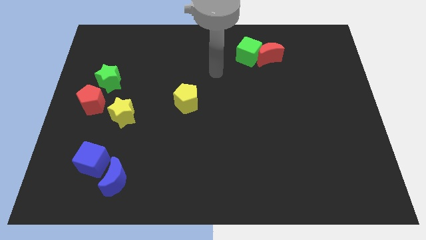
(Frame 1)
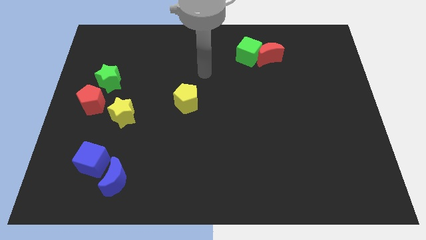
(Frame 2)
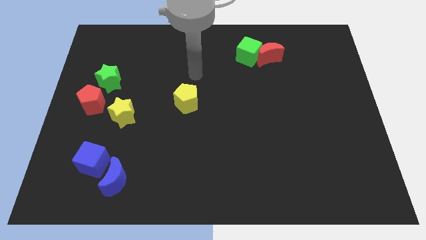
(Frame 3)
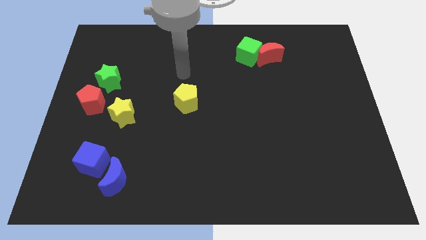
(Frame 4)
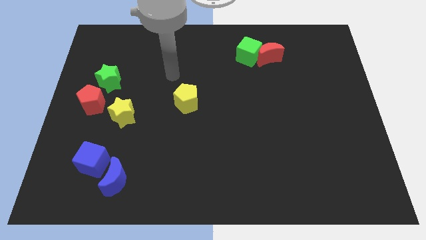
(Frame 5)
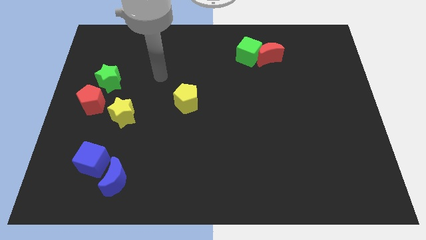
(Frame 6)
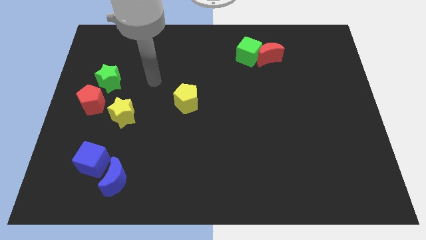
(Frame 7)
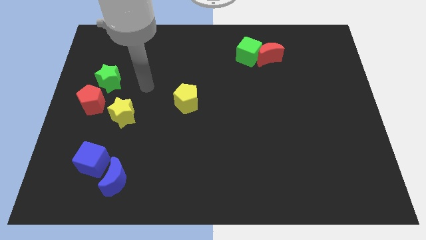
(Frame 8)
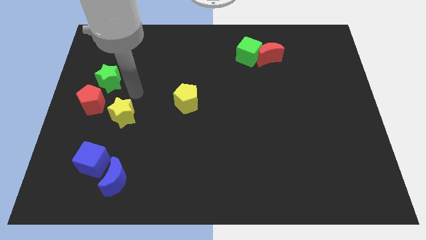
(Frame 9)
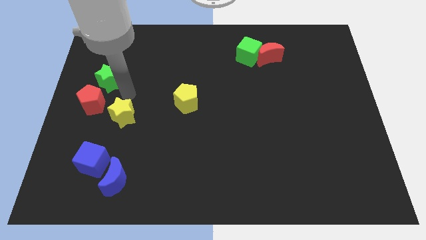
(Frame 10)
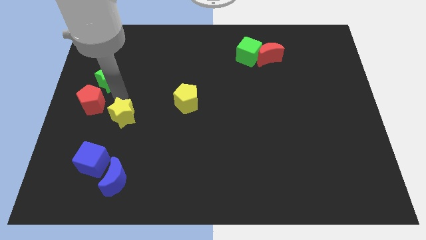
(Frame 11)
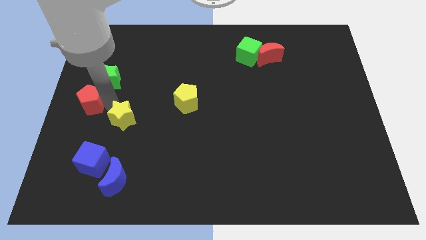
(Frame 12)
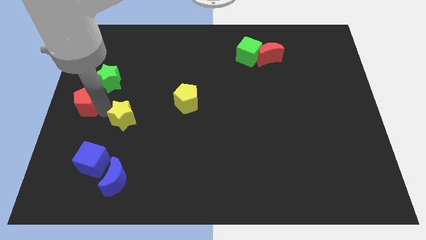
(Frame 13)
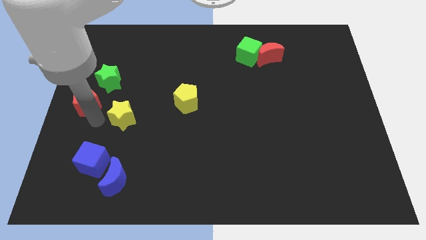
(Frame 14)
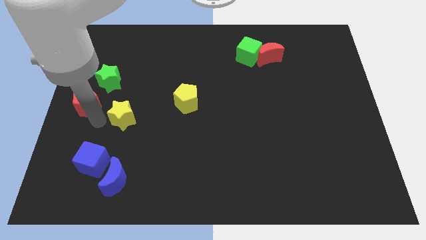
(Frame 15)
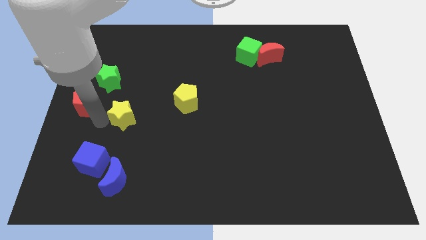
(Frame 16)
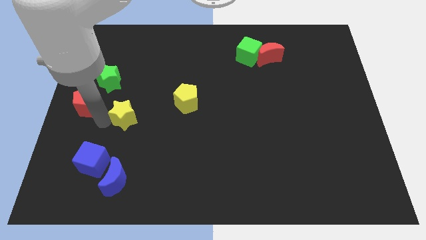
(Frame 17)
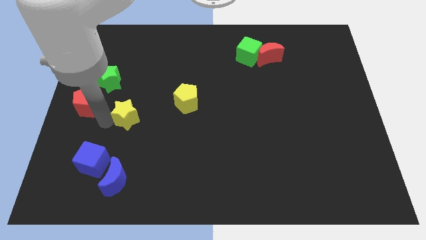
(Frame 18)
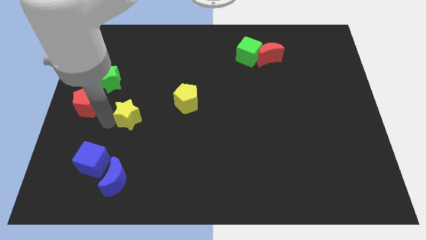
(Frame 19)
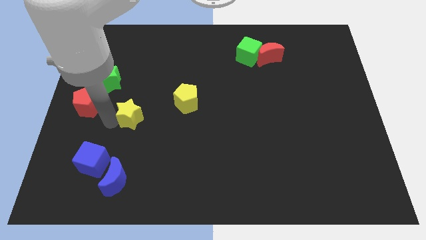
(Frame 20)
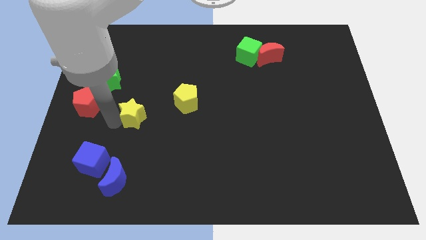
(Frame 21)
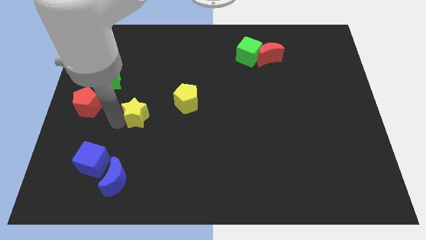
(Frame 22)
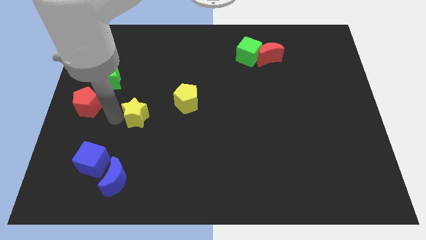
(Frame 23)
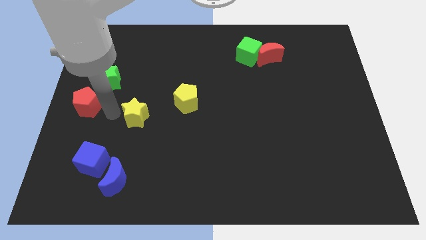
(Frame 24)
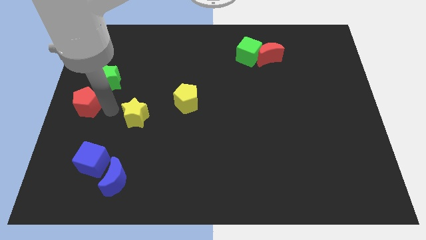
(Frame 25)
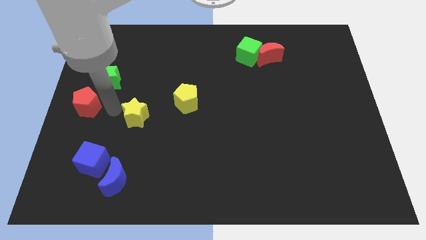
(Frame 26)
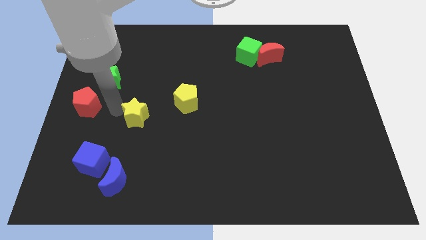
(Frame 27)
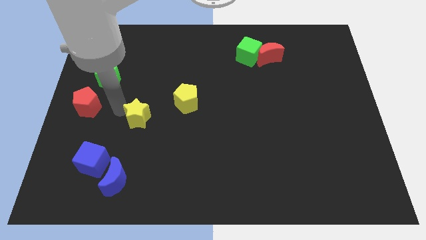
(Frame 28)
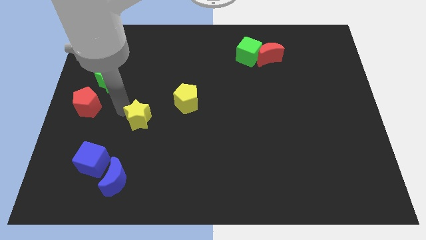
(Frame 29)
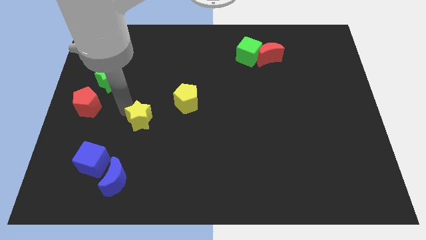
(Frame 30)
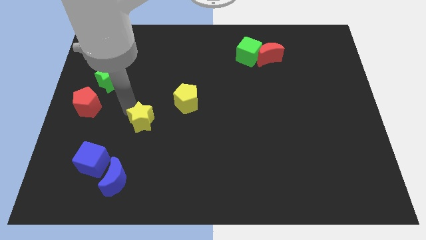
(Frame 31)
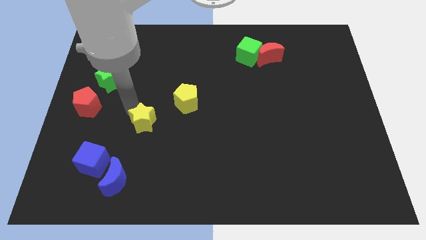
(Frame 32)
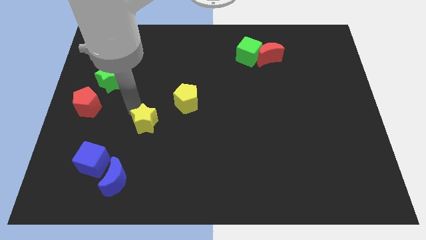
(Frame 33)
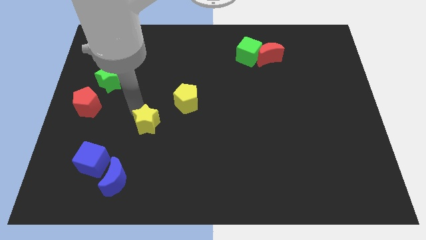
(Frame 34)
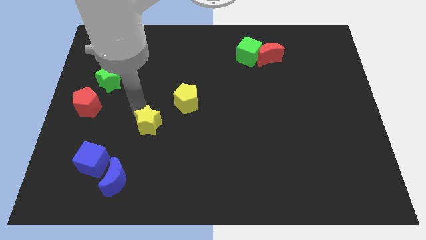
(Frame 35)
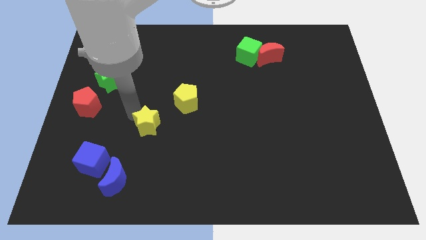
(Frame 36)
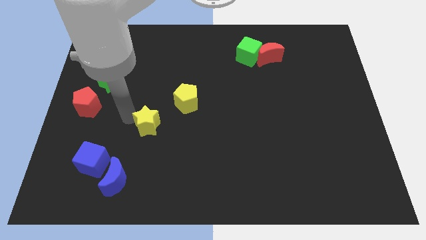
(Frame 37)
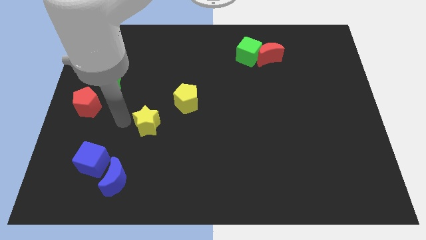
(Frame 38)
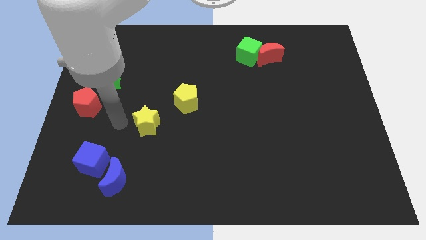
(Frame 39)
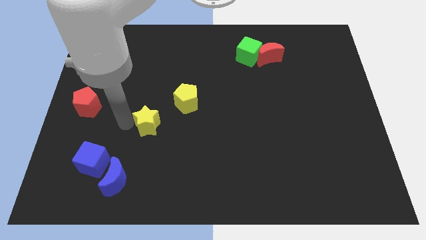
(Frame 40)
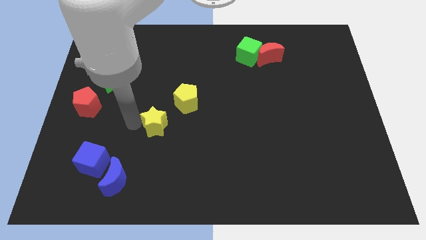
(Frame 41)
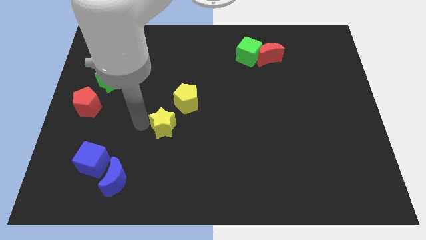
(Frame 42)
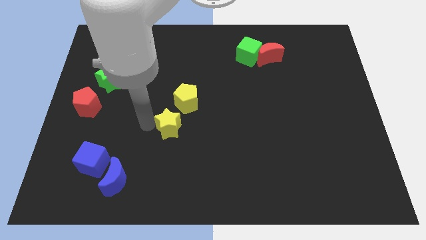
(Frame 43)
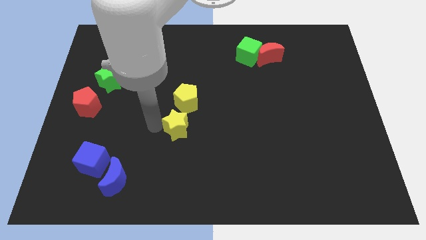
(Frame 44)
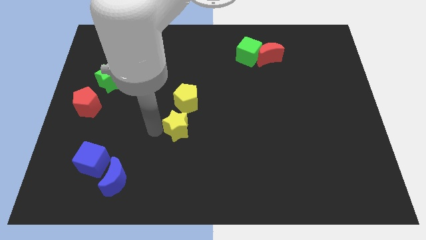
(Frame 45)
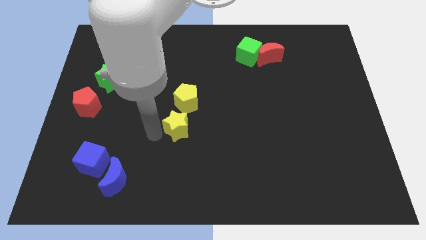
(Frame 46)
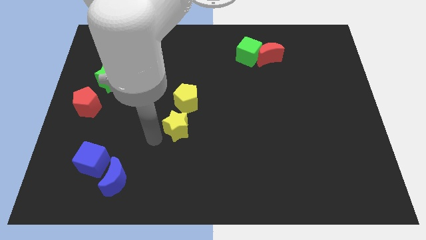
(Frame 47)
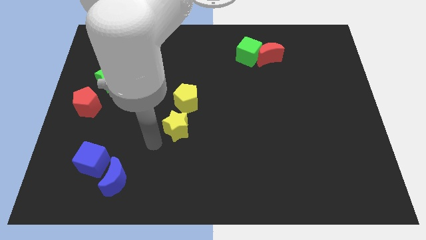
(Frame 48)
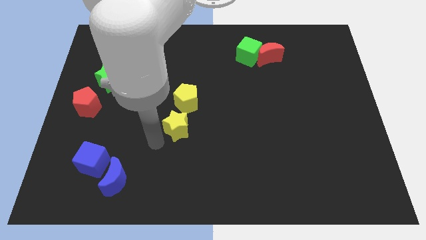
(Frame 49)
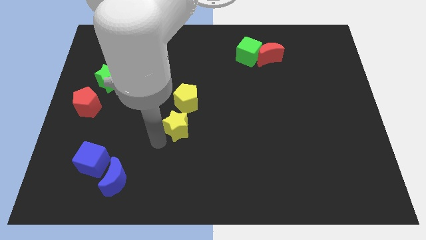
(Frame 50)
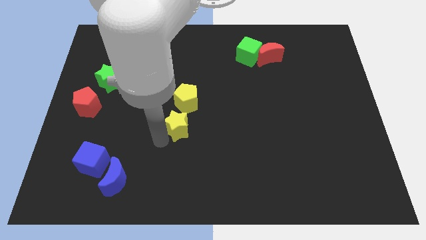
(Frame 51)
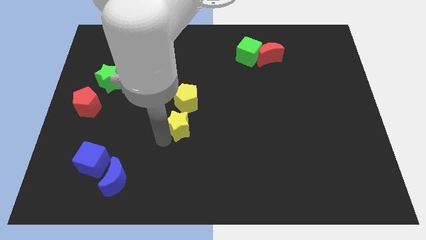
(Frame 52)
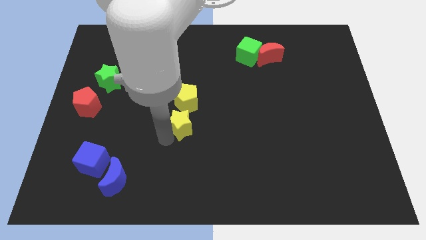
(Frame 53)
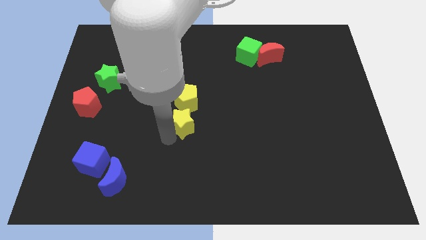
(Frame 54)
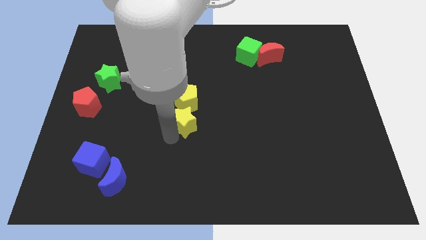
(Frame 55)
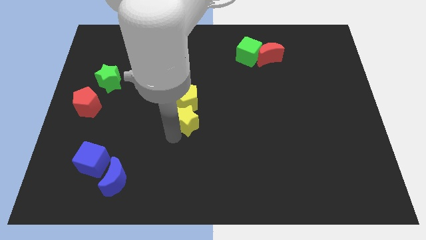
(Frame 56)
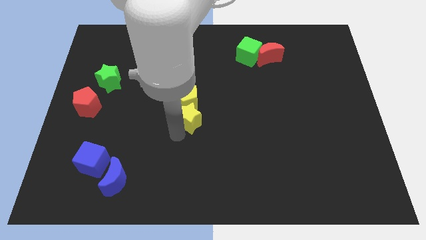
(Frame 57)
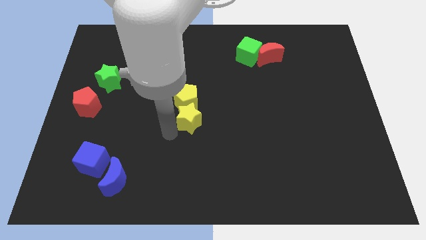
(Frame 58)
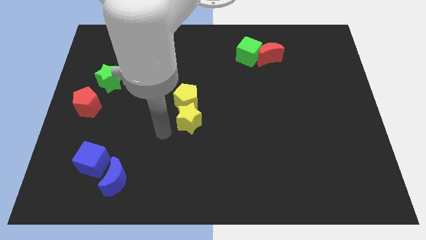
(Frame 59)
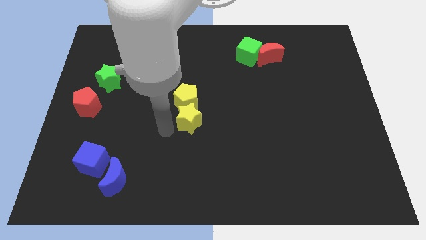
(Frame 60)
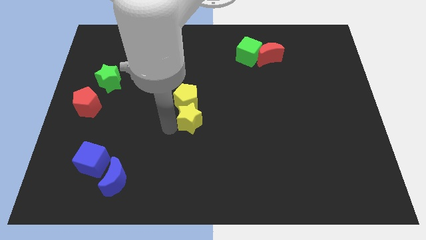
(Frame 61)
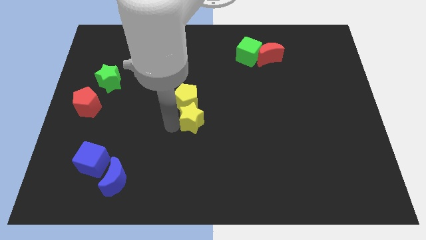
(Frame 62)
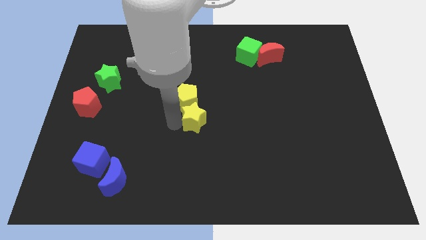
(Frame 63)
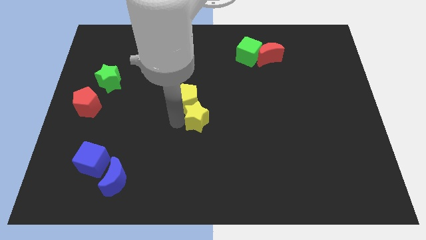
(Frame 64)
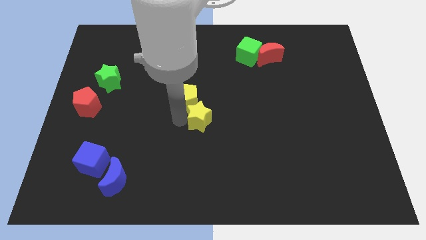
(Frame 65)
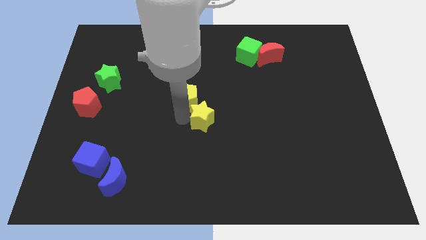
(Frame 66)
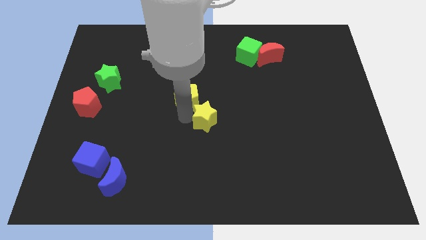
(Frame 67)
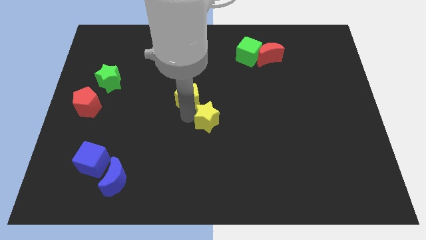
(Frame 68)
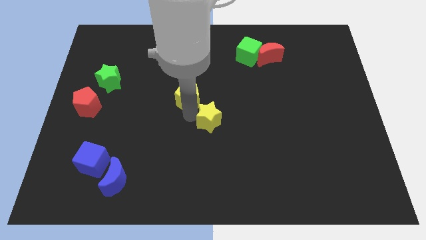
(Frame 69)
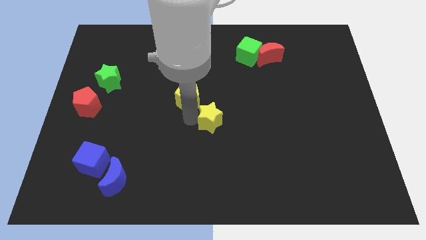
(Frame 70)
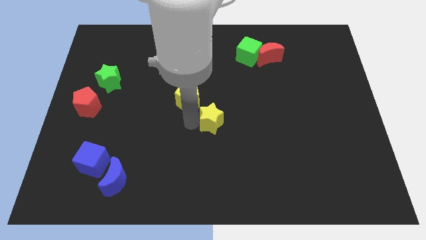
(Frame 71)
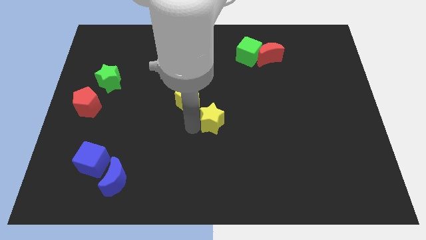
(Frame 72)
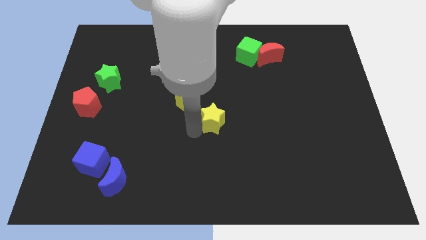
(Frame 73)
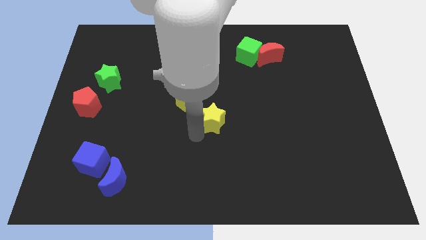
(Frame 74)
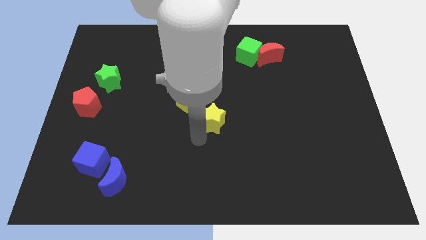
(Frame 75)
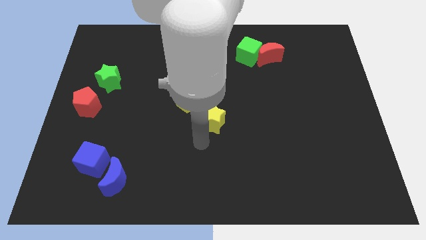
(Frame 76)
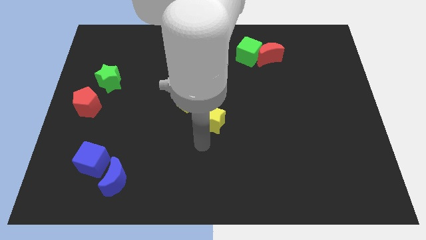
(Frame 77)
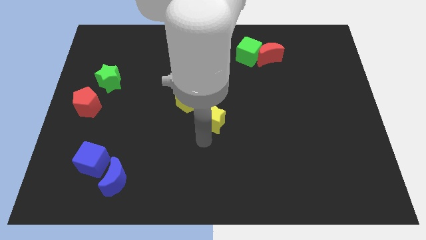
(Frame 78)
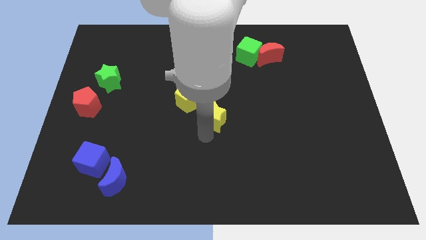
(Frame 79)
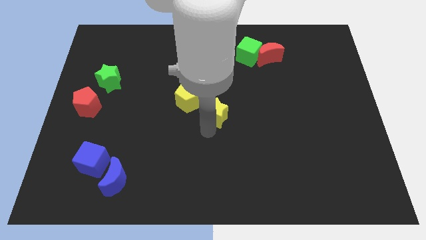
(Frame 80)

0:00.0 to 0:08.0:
slide the yellow star to the right side of the yellow pentagon

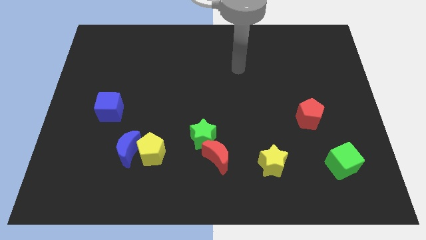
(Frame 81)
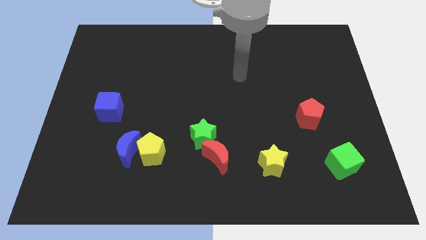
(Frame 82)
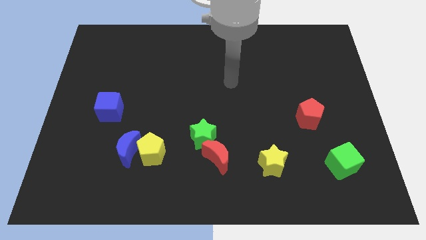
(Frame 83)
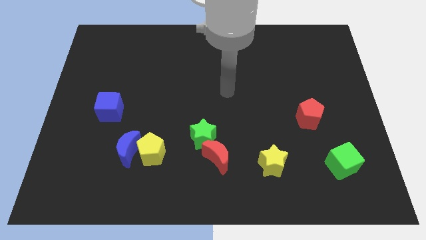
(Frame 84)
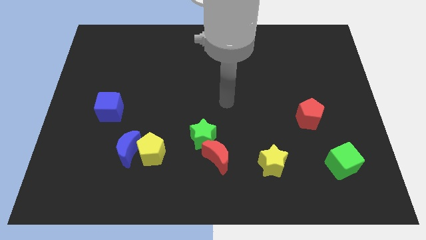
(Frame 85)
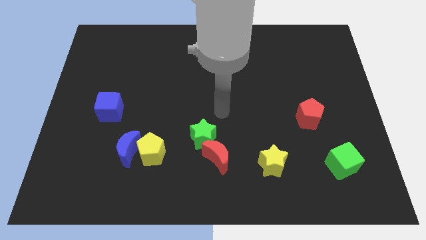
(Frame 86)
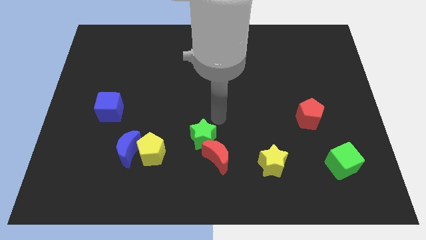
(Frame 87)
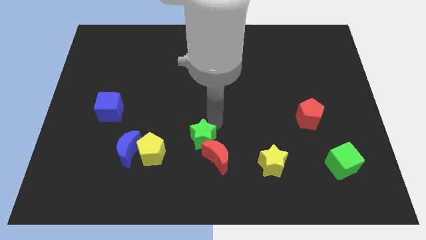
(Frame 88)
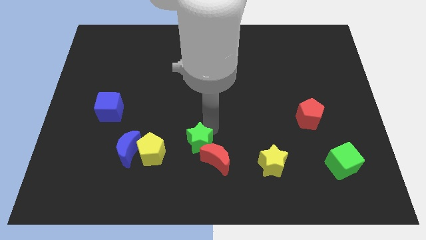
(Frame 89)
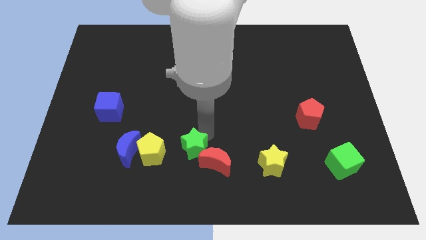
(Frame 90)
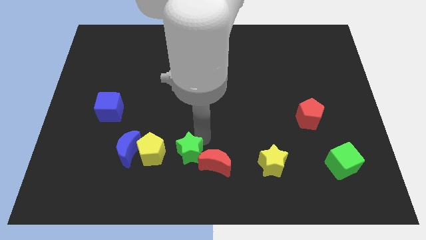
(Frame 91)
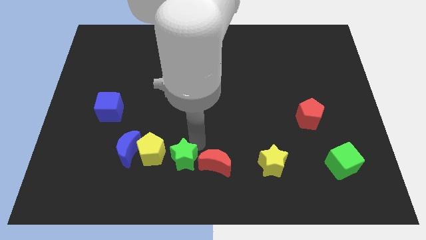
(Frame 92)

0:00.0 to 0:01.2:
push the green star diagonally down and to the right of the yellow pentagon
